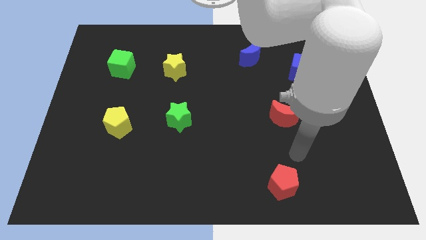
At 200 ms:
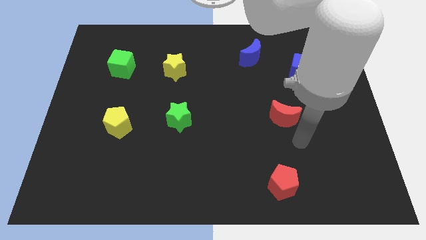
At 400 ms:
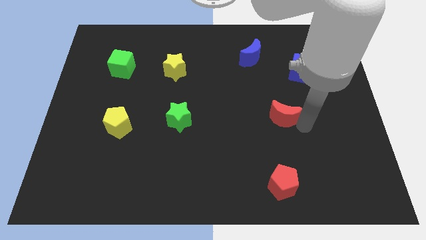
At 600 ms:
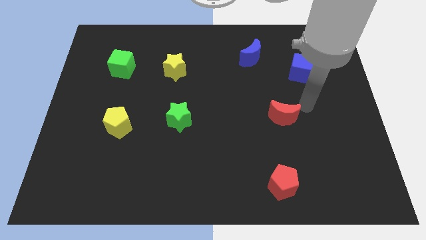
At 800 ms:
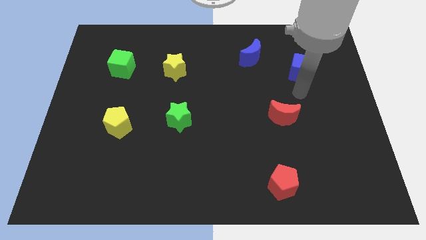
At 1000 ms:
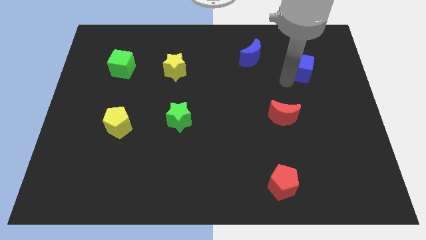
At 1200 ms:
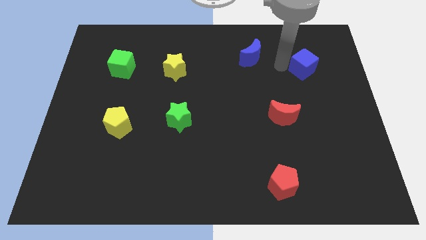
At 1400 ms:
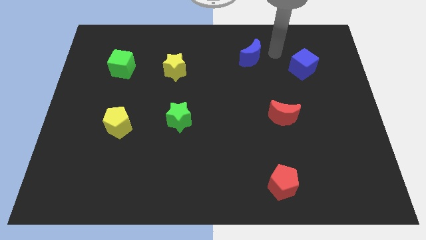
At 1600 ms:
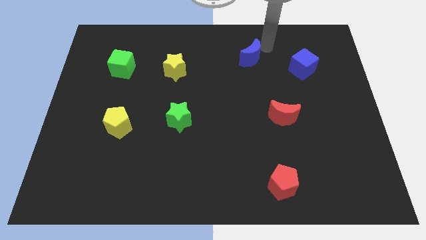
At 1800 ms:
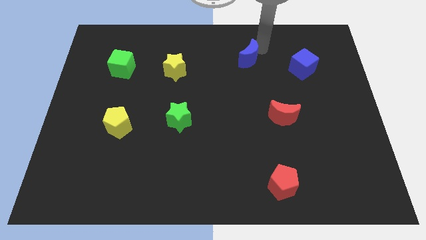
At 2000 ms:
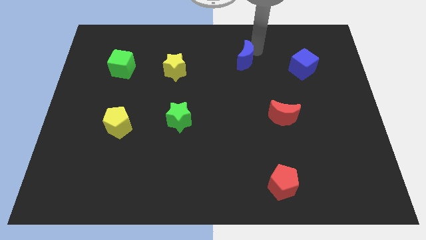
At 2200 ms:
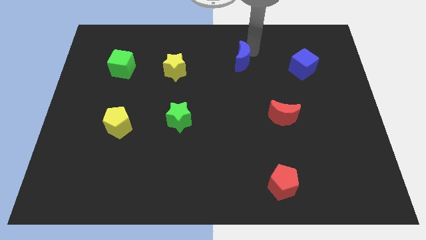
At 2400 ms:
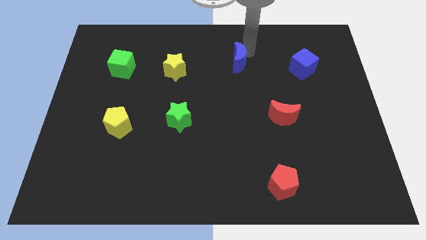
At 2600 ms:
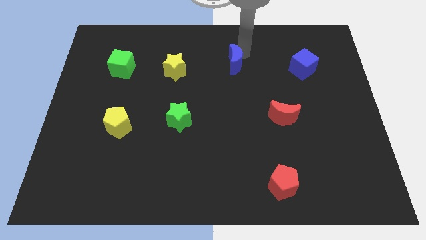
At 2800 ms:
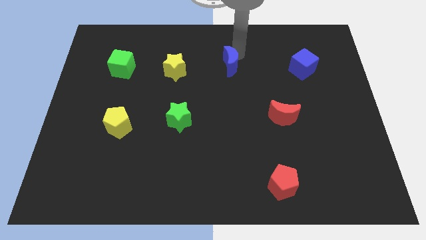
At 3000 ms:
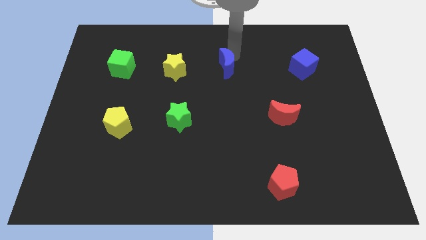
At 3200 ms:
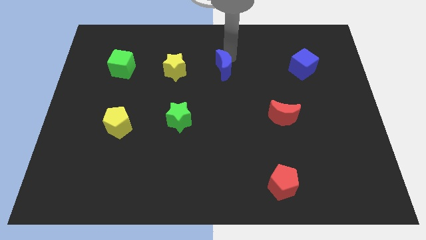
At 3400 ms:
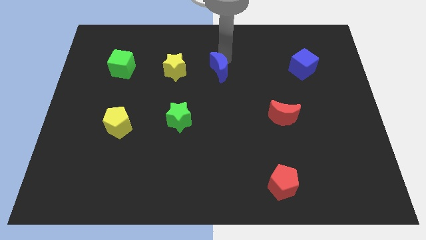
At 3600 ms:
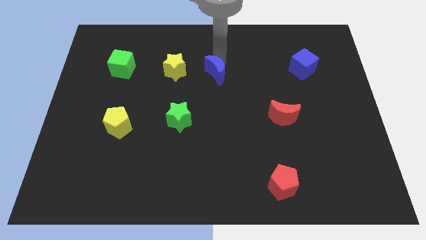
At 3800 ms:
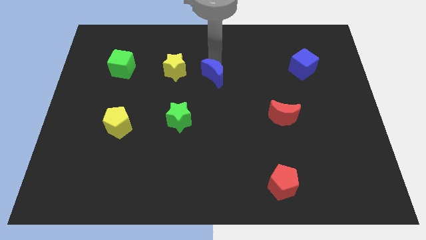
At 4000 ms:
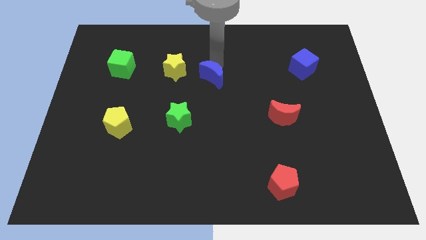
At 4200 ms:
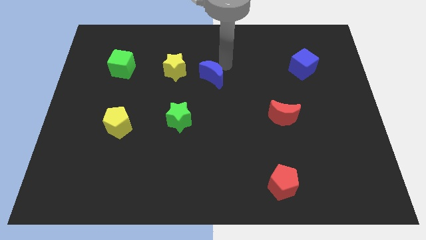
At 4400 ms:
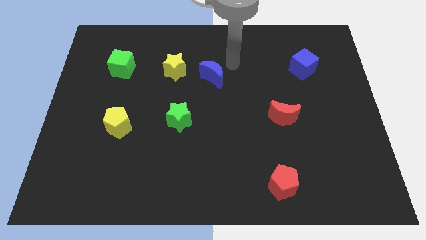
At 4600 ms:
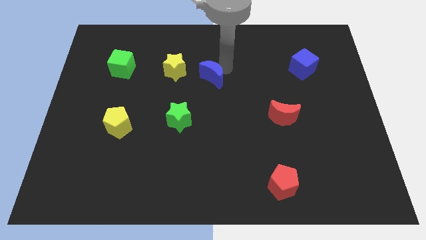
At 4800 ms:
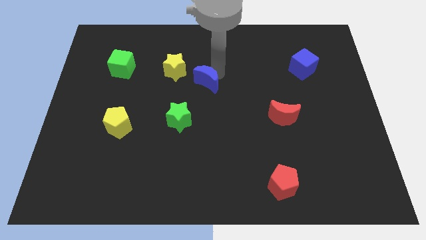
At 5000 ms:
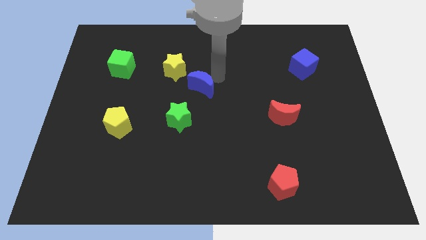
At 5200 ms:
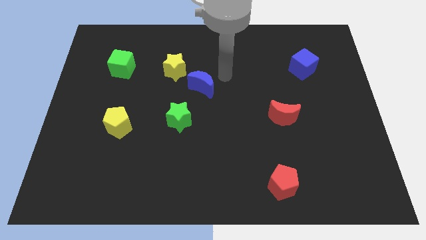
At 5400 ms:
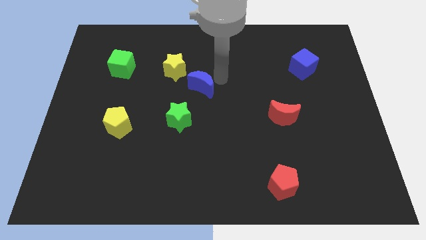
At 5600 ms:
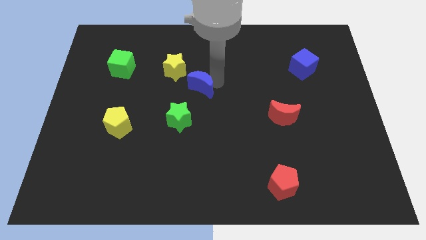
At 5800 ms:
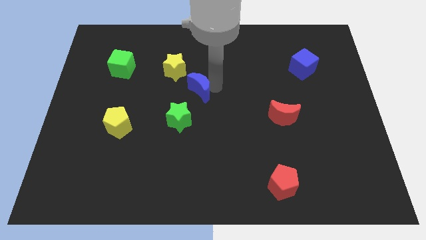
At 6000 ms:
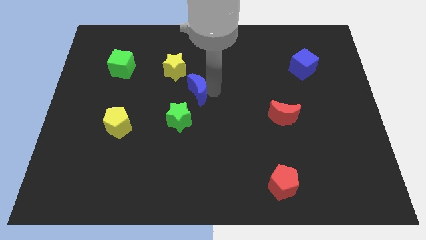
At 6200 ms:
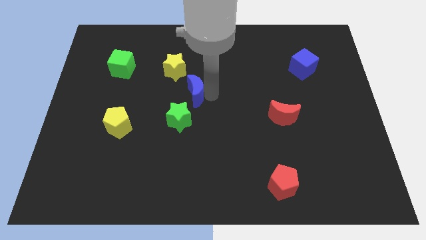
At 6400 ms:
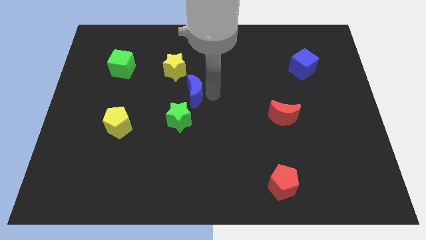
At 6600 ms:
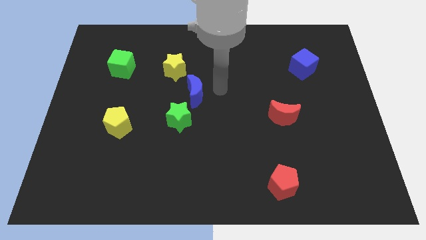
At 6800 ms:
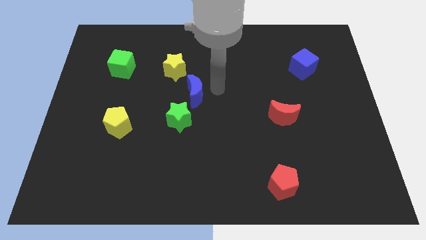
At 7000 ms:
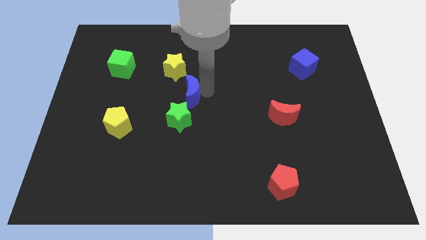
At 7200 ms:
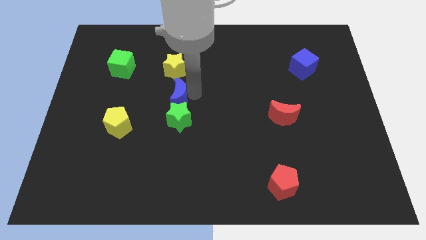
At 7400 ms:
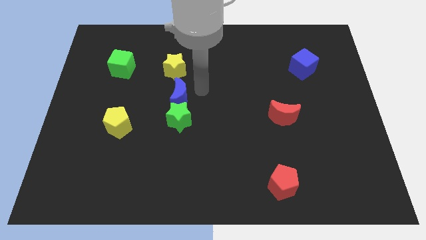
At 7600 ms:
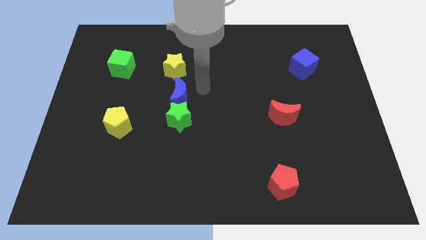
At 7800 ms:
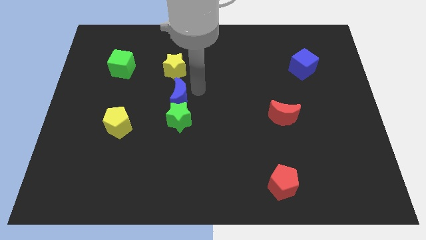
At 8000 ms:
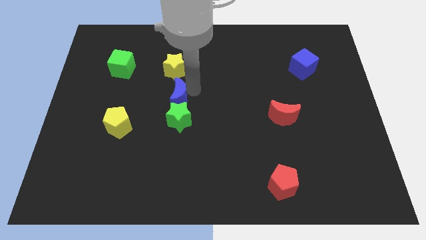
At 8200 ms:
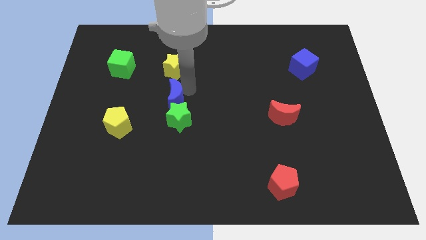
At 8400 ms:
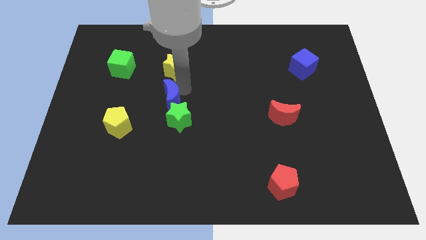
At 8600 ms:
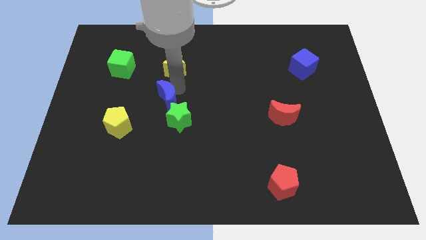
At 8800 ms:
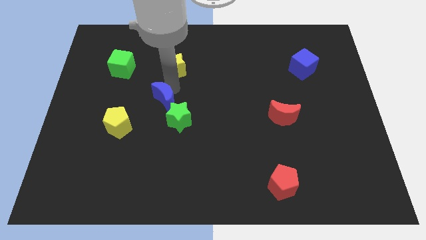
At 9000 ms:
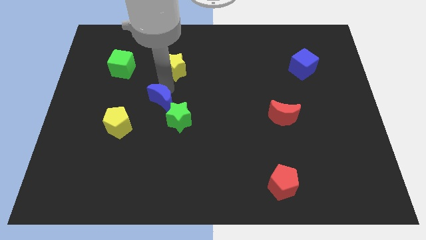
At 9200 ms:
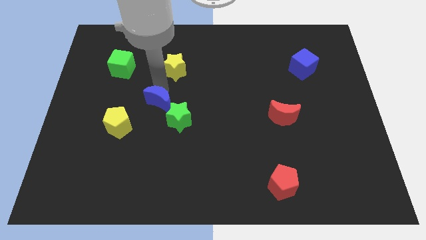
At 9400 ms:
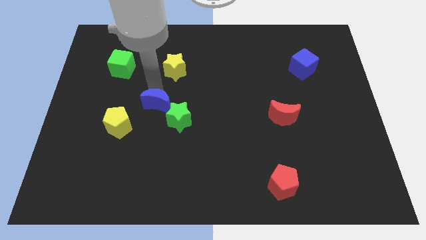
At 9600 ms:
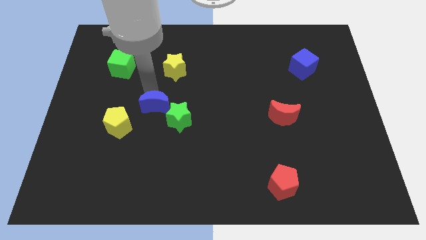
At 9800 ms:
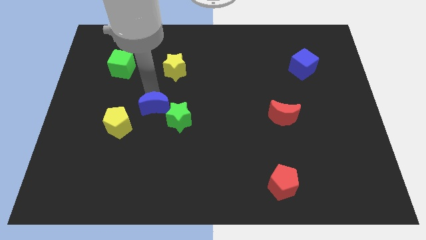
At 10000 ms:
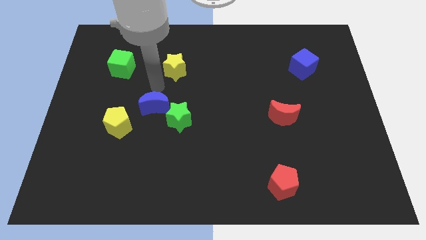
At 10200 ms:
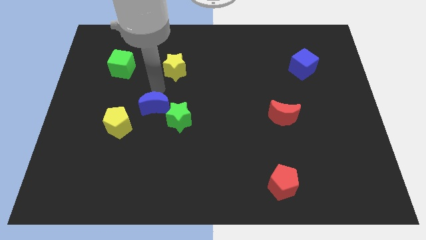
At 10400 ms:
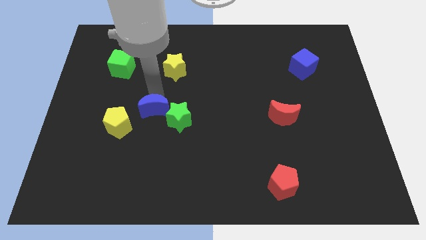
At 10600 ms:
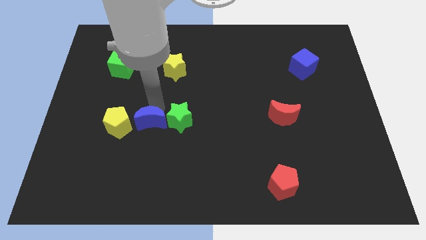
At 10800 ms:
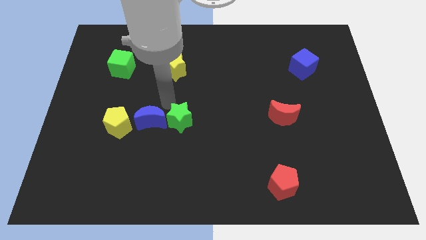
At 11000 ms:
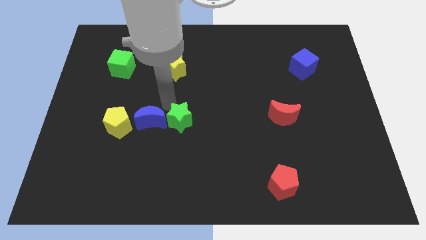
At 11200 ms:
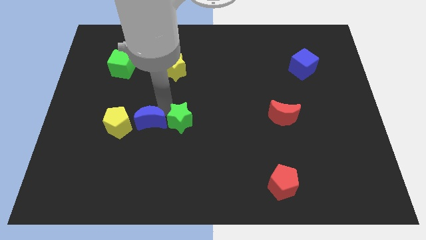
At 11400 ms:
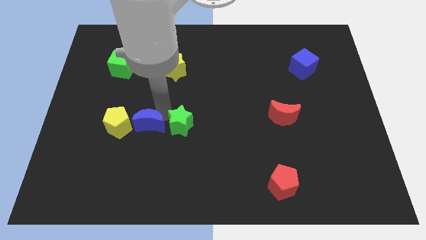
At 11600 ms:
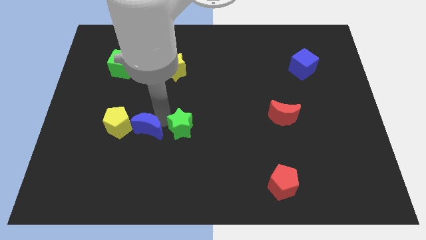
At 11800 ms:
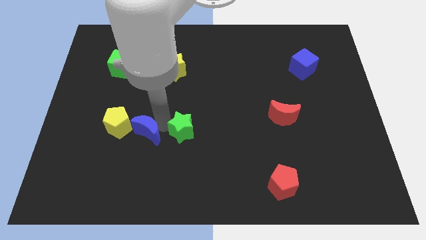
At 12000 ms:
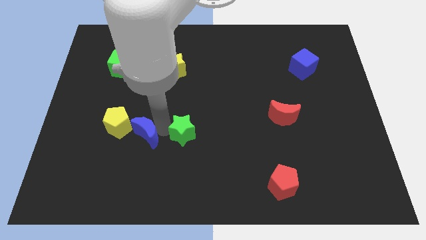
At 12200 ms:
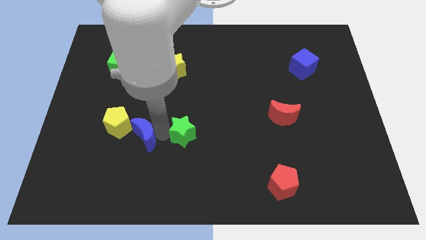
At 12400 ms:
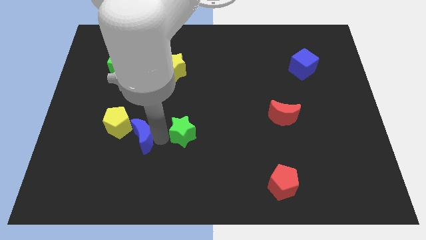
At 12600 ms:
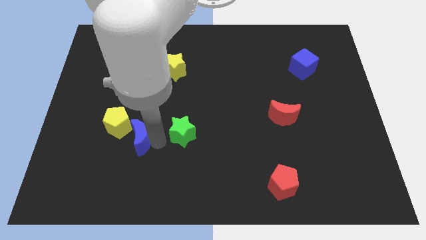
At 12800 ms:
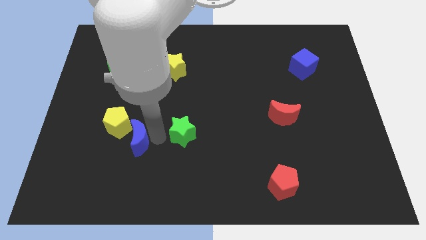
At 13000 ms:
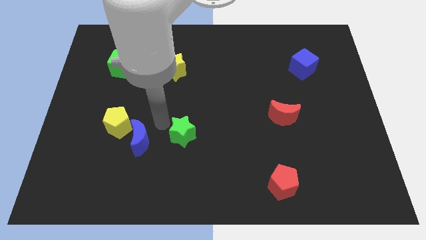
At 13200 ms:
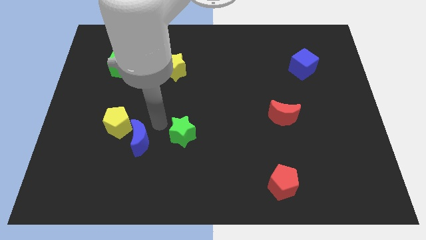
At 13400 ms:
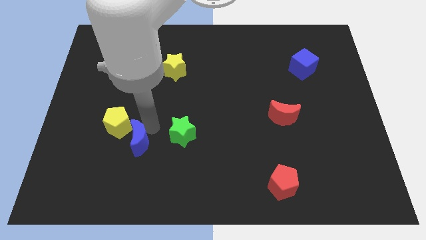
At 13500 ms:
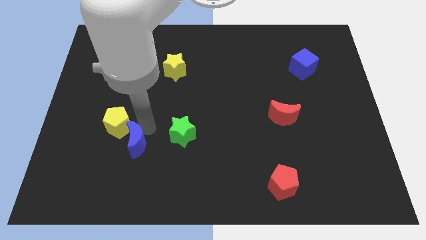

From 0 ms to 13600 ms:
move the blue moon to the bottom side of the yellow pentagon

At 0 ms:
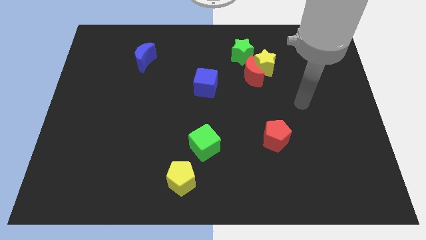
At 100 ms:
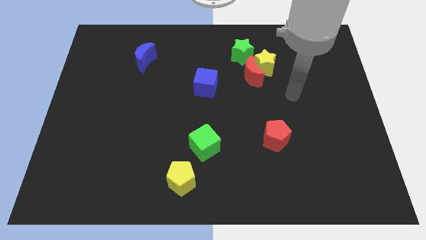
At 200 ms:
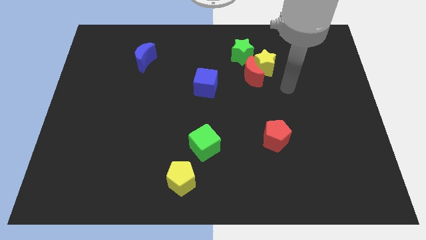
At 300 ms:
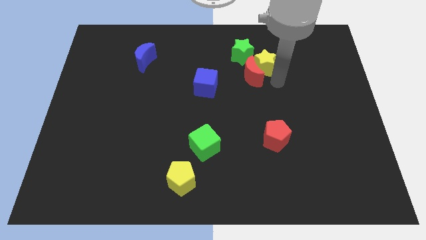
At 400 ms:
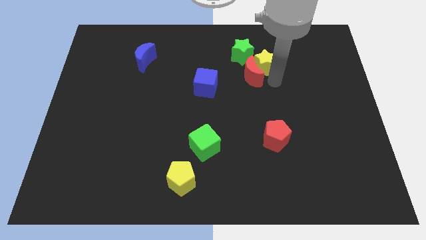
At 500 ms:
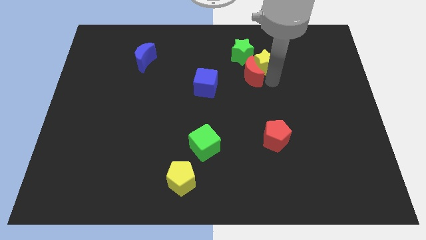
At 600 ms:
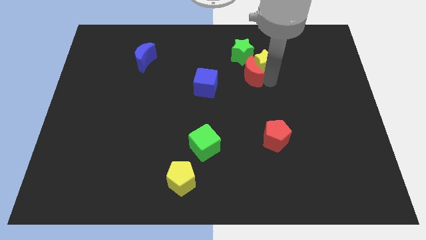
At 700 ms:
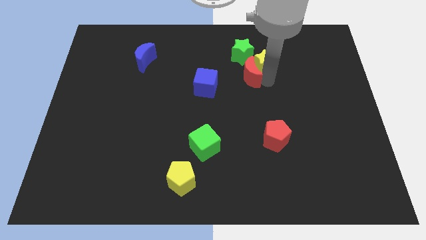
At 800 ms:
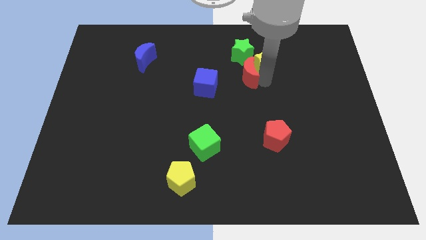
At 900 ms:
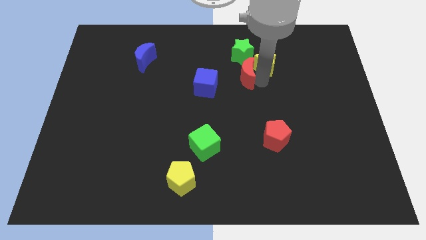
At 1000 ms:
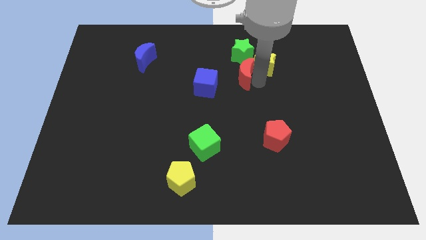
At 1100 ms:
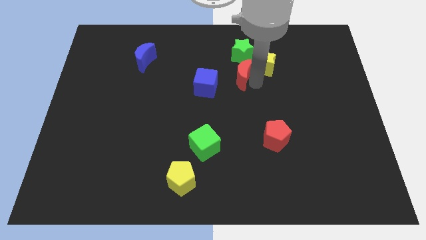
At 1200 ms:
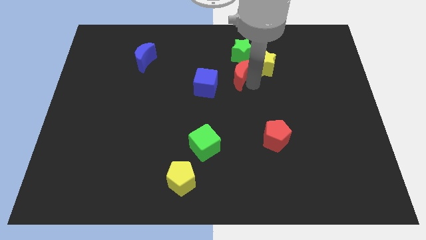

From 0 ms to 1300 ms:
push the red moon to the bottom left side of the green star
